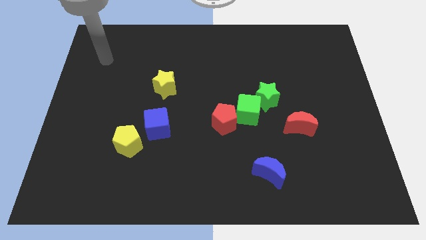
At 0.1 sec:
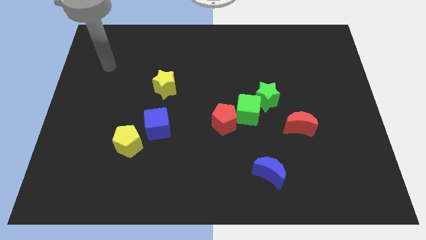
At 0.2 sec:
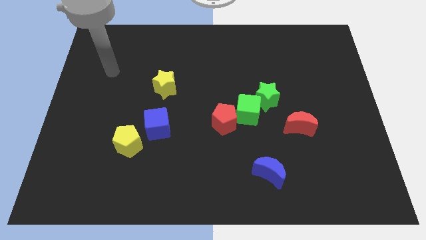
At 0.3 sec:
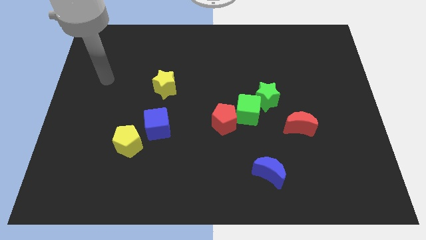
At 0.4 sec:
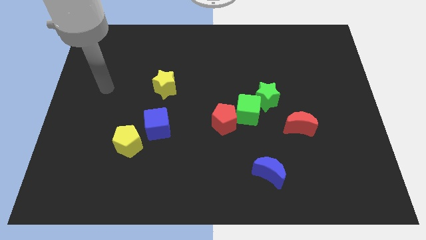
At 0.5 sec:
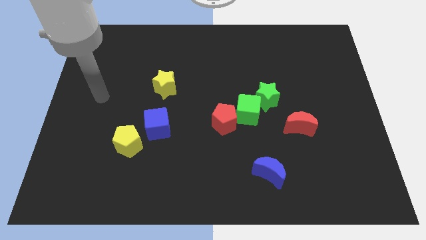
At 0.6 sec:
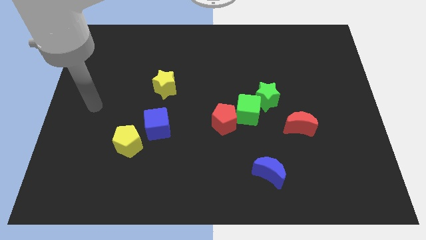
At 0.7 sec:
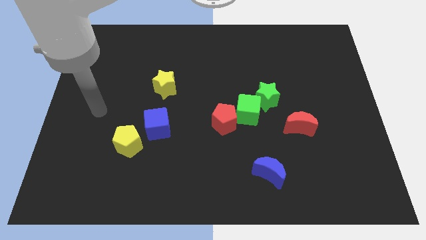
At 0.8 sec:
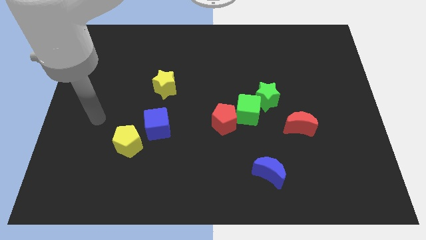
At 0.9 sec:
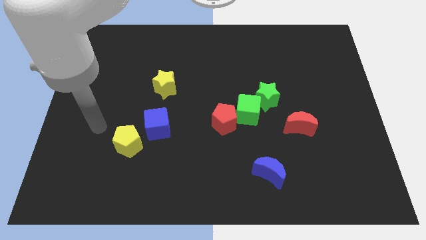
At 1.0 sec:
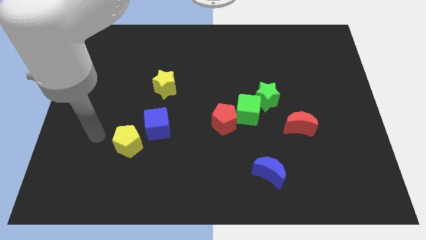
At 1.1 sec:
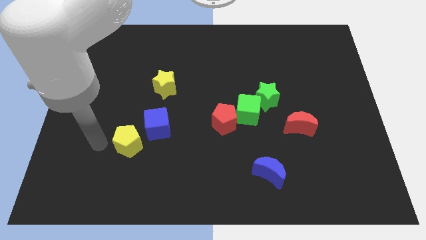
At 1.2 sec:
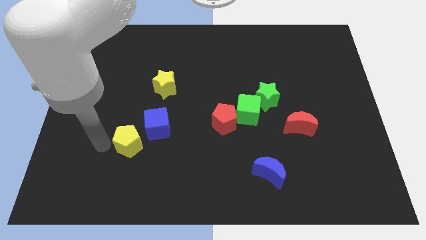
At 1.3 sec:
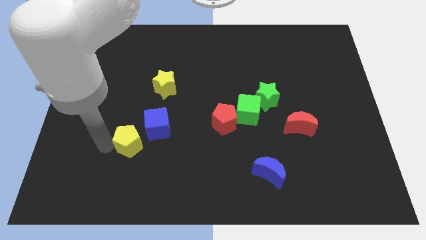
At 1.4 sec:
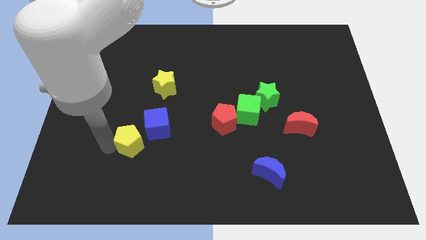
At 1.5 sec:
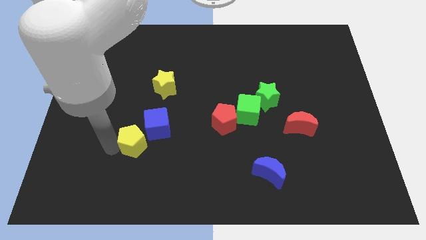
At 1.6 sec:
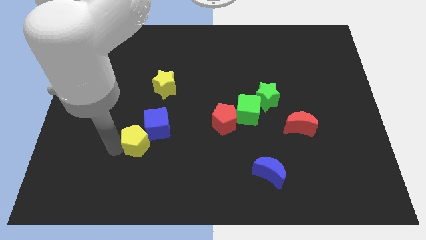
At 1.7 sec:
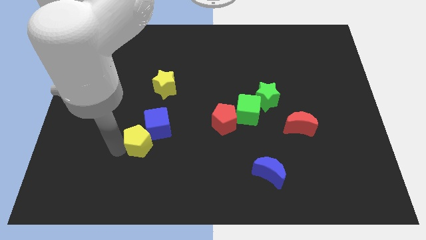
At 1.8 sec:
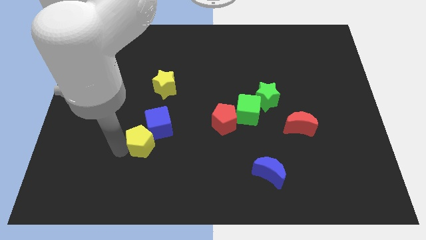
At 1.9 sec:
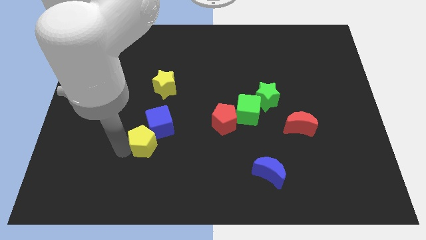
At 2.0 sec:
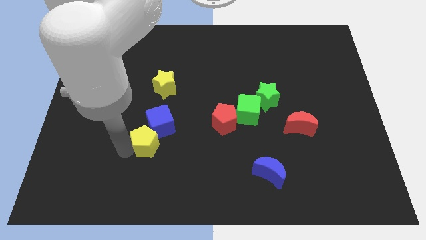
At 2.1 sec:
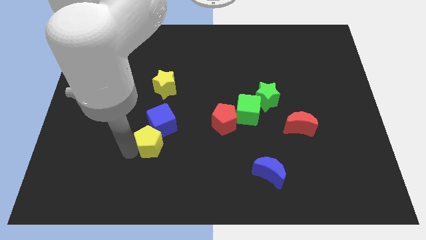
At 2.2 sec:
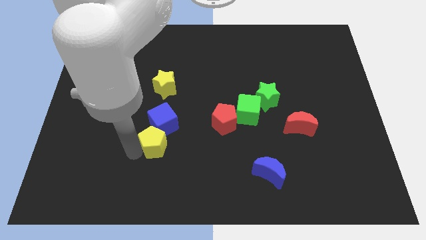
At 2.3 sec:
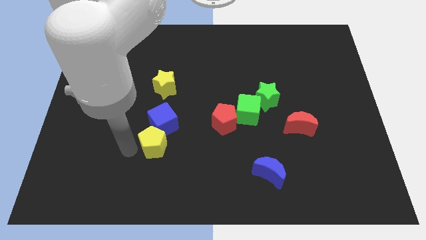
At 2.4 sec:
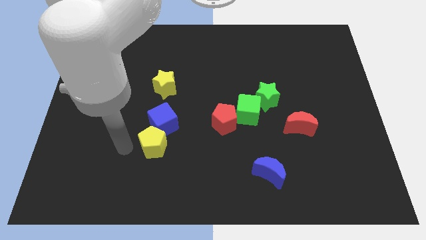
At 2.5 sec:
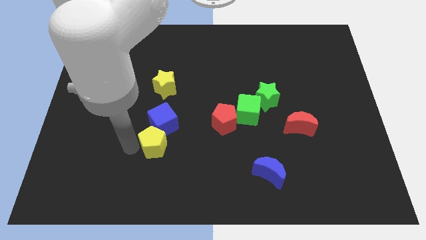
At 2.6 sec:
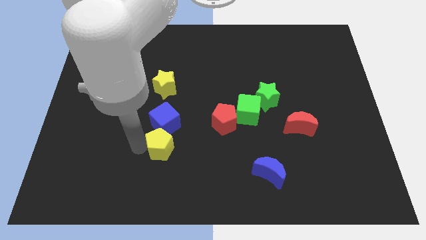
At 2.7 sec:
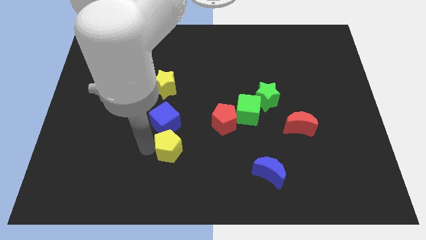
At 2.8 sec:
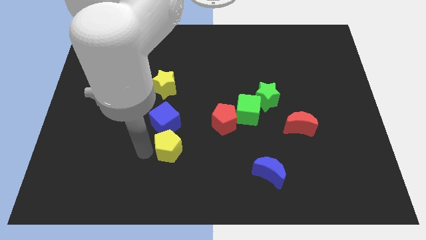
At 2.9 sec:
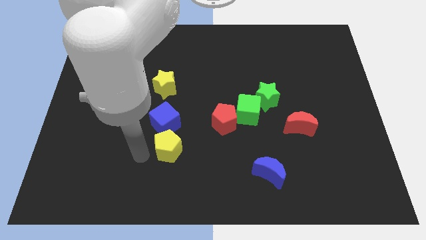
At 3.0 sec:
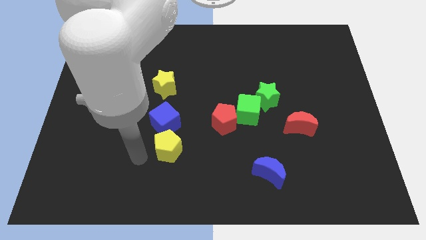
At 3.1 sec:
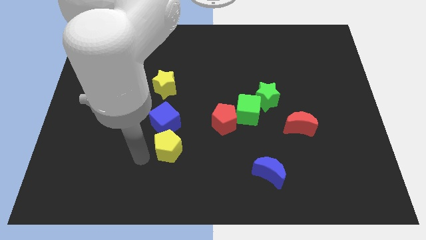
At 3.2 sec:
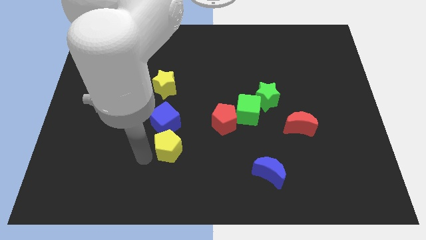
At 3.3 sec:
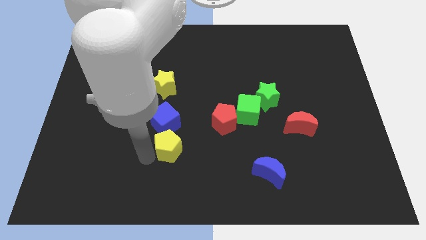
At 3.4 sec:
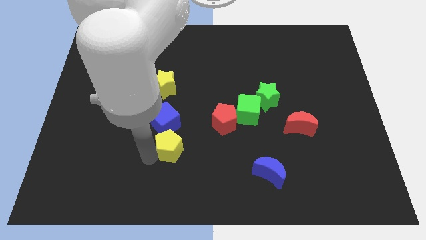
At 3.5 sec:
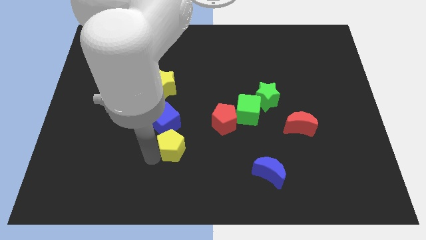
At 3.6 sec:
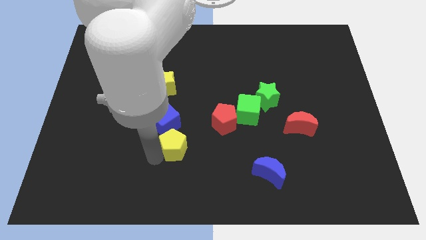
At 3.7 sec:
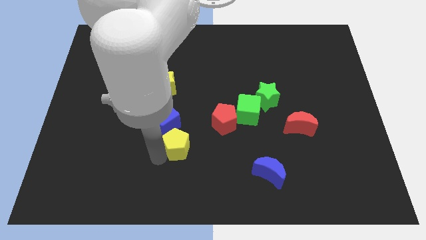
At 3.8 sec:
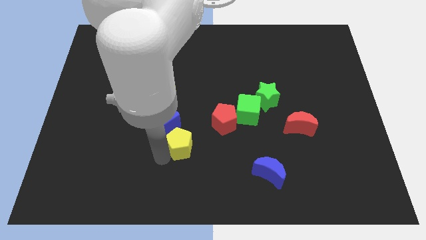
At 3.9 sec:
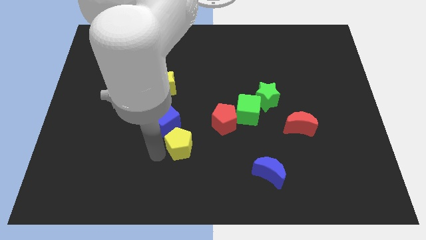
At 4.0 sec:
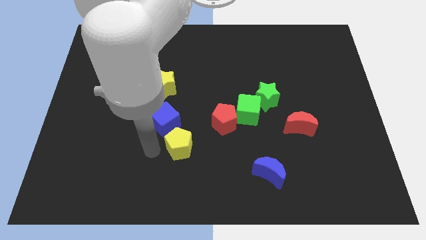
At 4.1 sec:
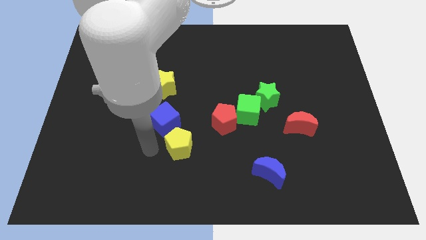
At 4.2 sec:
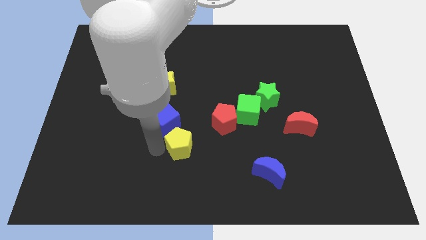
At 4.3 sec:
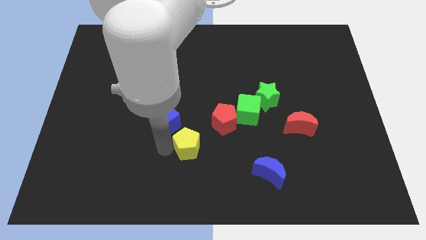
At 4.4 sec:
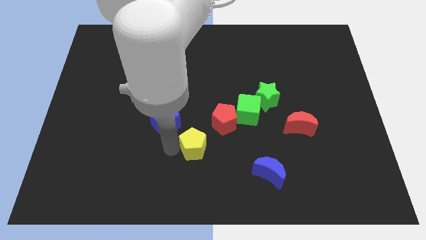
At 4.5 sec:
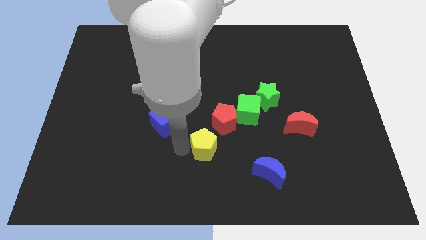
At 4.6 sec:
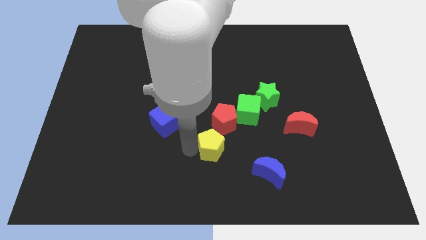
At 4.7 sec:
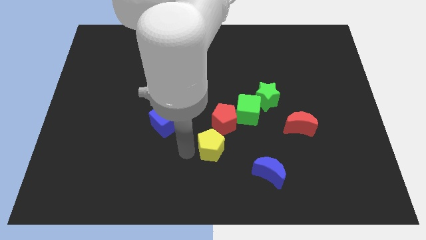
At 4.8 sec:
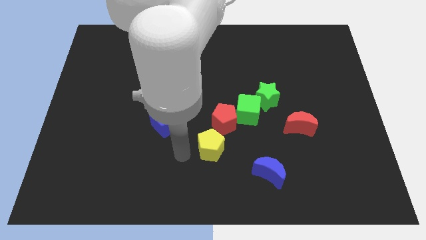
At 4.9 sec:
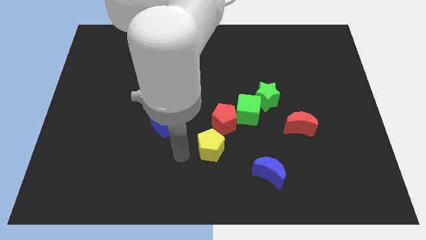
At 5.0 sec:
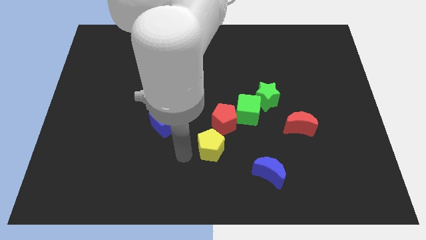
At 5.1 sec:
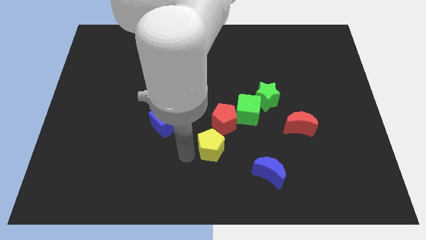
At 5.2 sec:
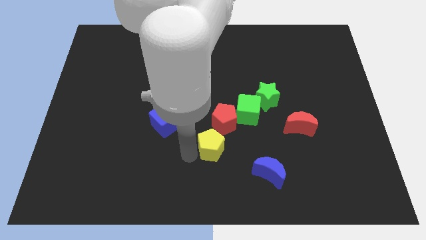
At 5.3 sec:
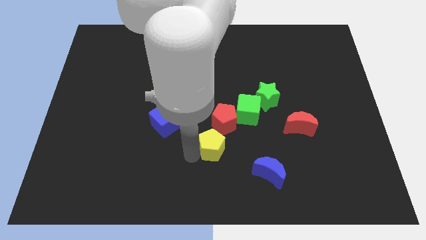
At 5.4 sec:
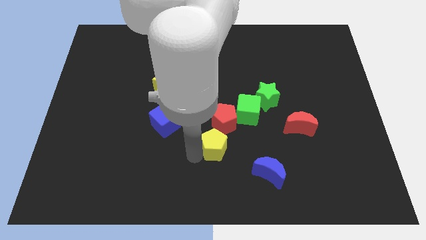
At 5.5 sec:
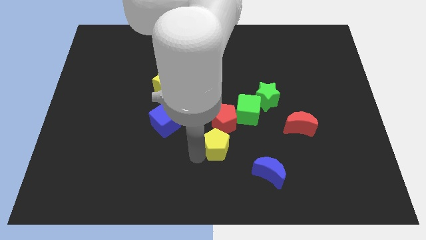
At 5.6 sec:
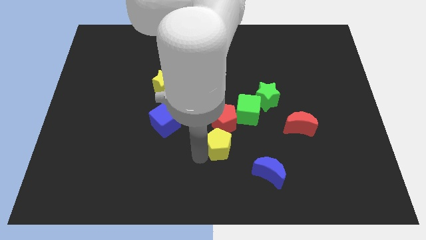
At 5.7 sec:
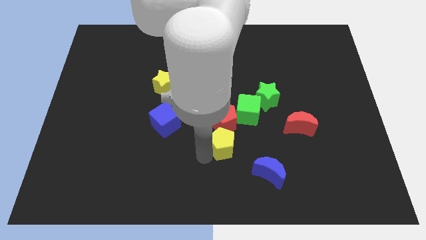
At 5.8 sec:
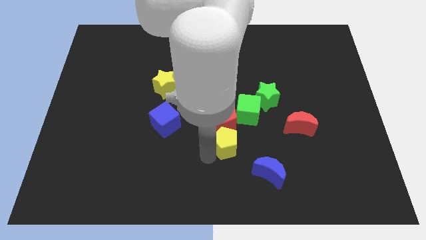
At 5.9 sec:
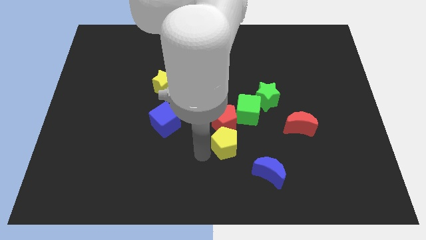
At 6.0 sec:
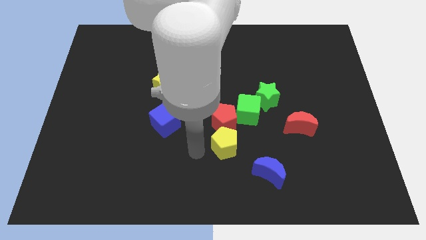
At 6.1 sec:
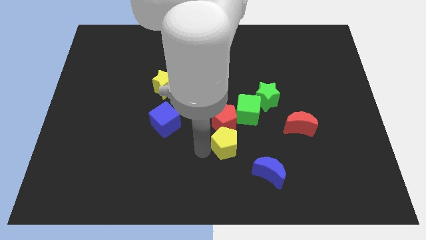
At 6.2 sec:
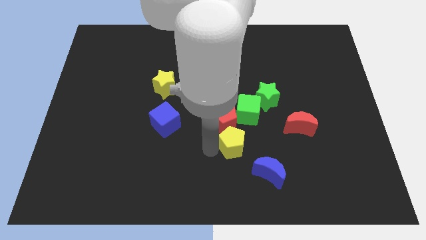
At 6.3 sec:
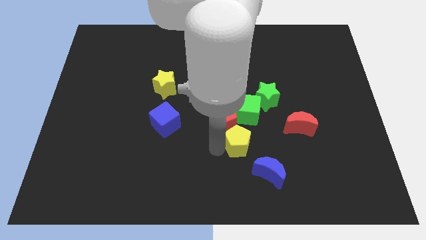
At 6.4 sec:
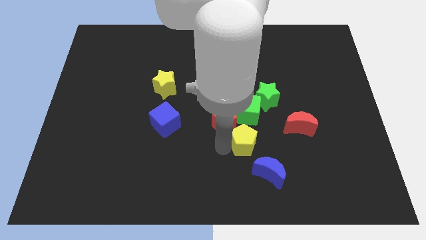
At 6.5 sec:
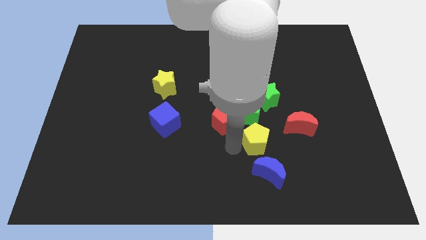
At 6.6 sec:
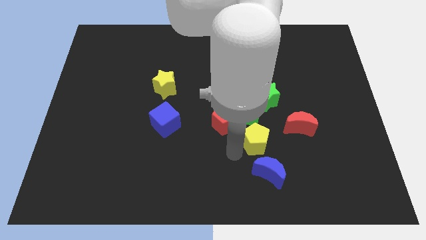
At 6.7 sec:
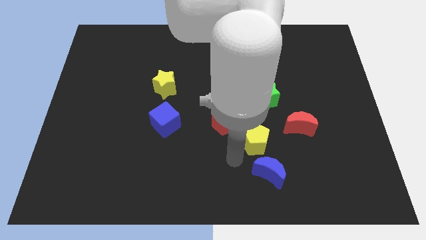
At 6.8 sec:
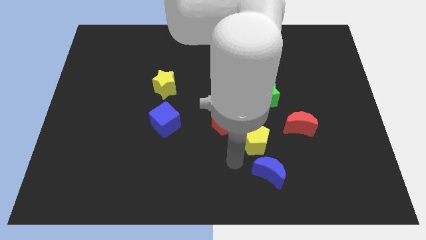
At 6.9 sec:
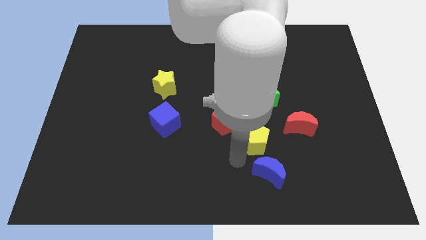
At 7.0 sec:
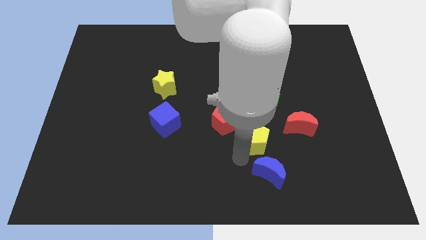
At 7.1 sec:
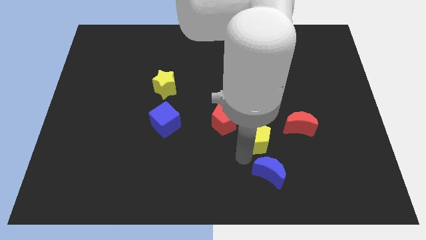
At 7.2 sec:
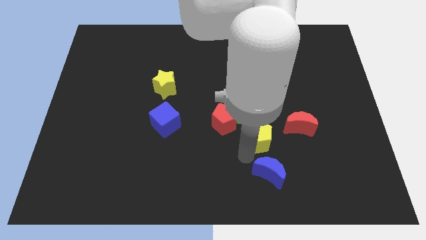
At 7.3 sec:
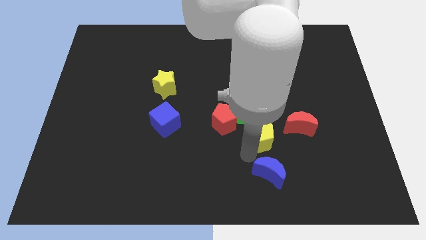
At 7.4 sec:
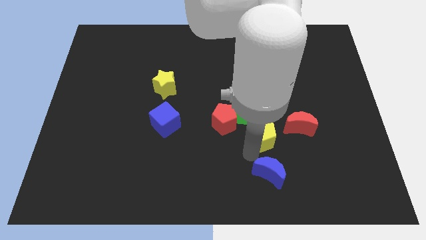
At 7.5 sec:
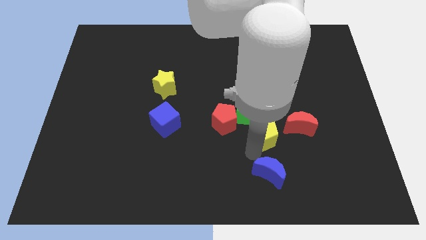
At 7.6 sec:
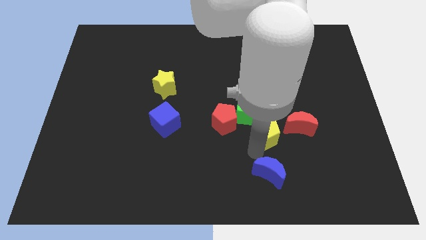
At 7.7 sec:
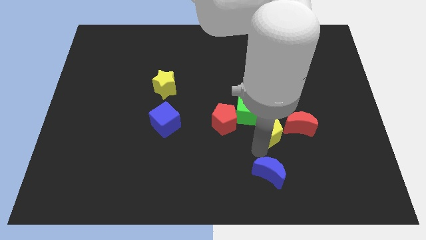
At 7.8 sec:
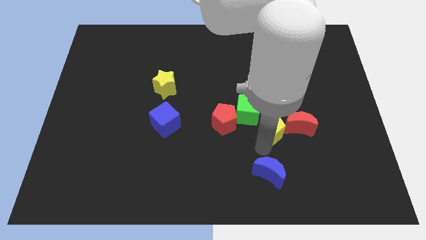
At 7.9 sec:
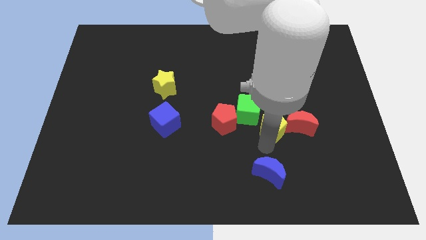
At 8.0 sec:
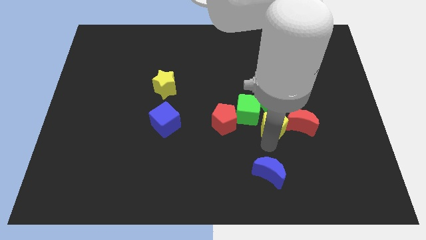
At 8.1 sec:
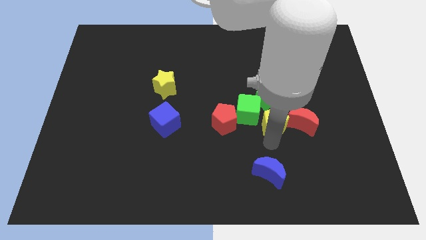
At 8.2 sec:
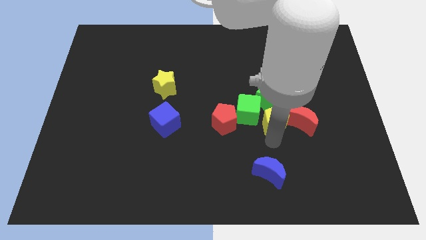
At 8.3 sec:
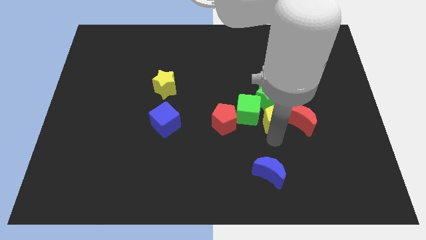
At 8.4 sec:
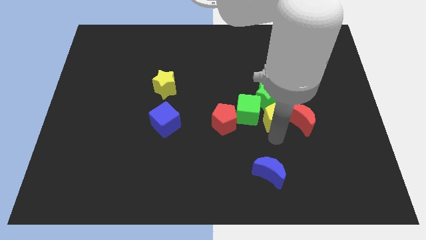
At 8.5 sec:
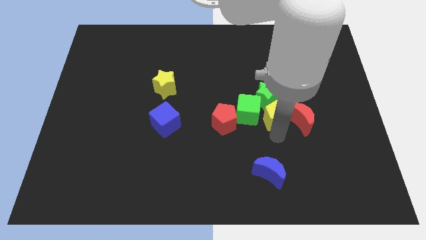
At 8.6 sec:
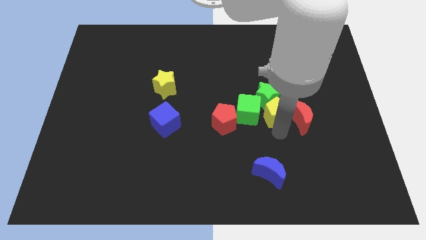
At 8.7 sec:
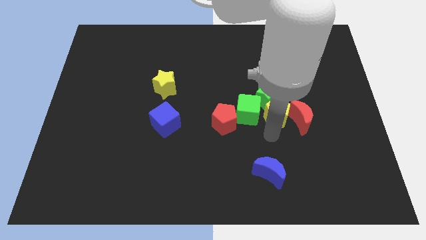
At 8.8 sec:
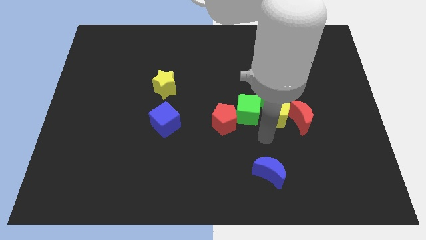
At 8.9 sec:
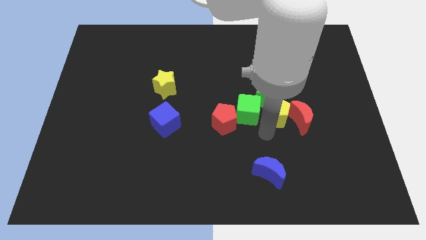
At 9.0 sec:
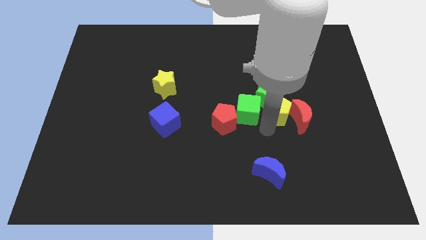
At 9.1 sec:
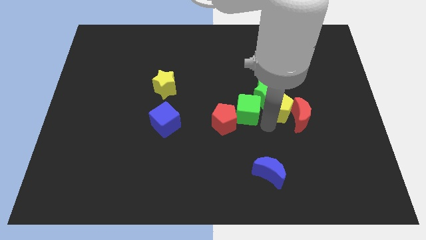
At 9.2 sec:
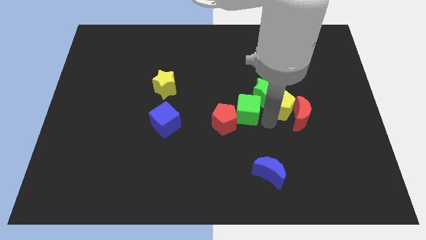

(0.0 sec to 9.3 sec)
move the yellow pentagon above the red moon
